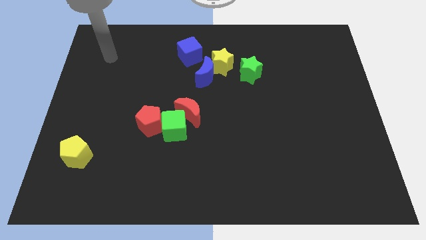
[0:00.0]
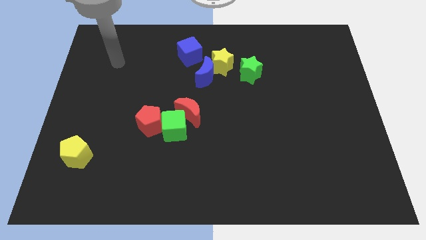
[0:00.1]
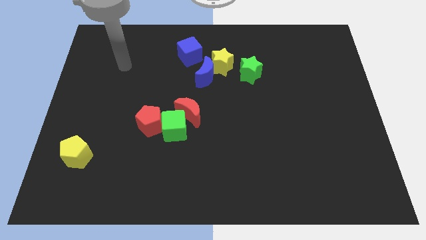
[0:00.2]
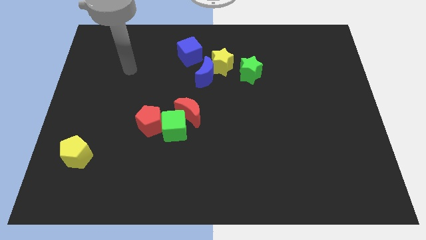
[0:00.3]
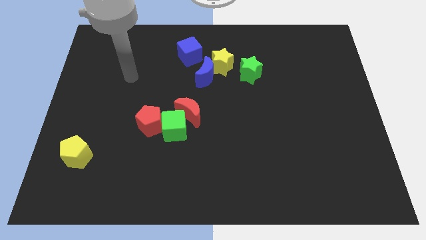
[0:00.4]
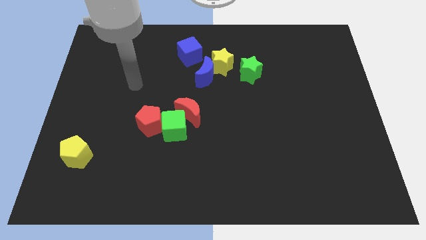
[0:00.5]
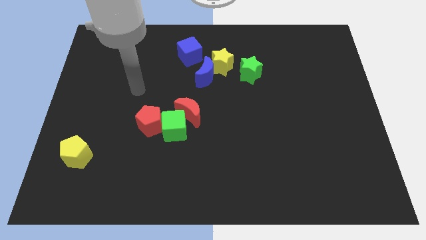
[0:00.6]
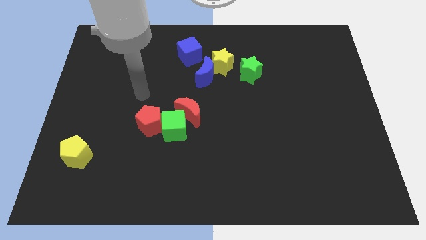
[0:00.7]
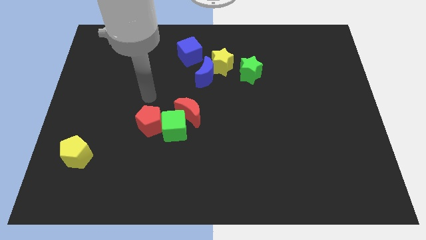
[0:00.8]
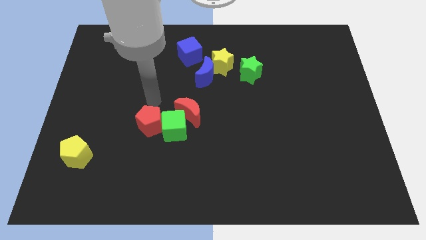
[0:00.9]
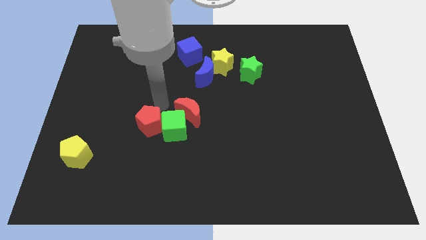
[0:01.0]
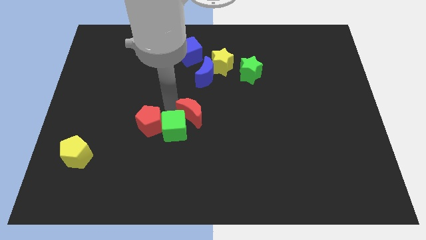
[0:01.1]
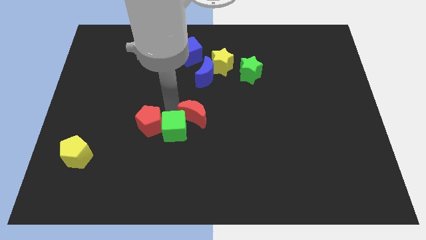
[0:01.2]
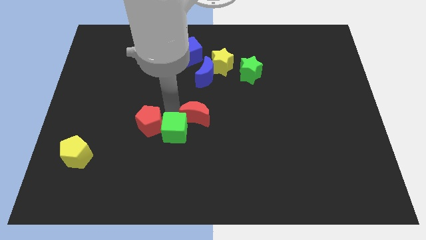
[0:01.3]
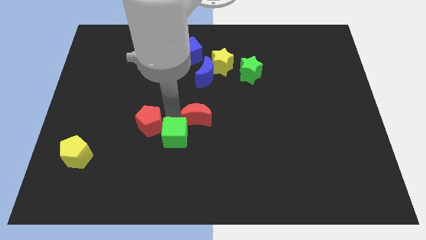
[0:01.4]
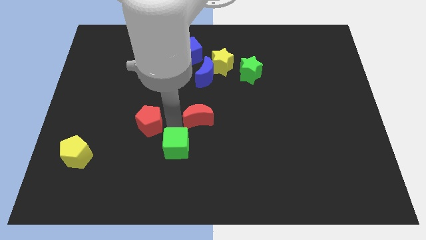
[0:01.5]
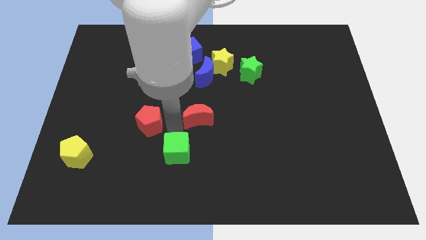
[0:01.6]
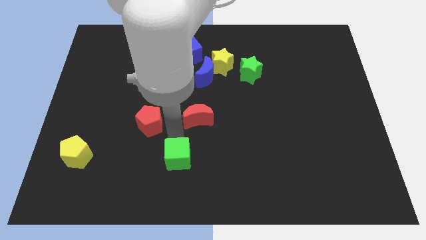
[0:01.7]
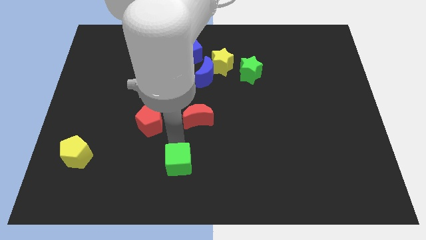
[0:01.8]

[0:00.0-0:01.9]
move the green cube away from the red moon and red pentagon

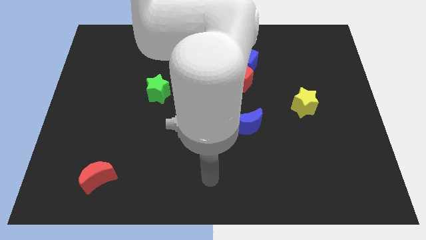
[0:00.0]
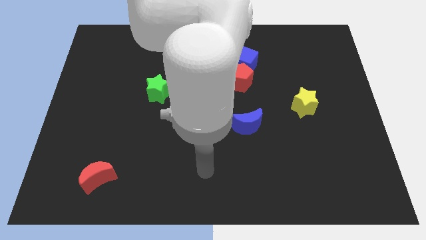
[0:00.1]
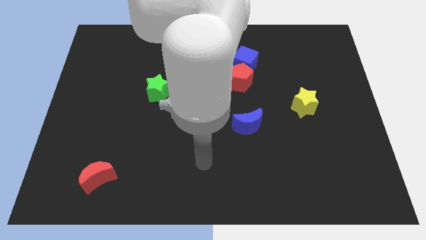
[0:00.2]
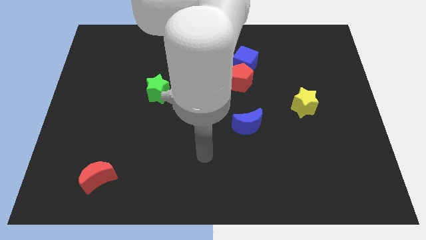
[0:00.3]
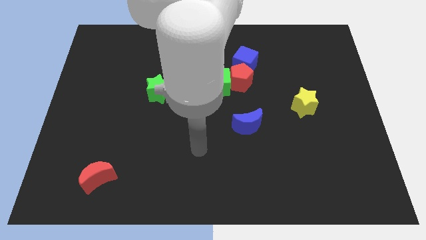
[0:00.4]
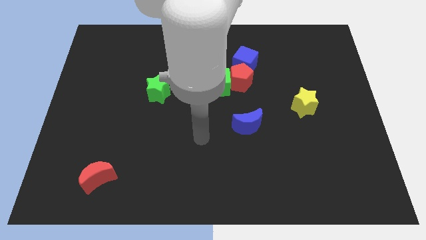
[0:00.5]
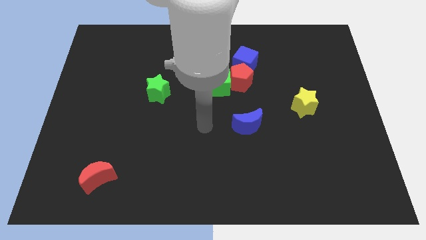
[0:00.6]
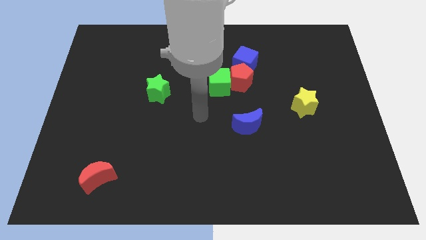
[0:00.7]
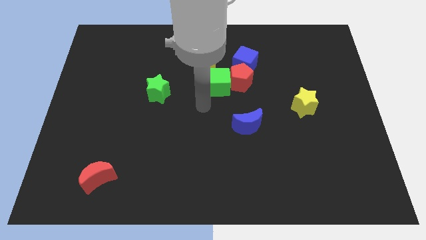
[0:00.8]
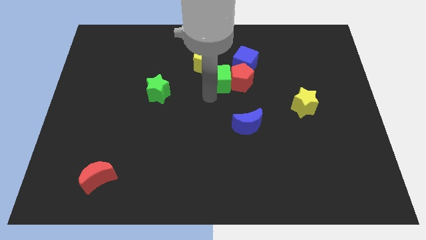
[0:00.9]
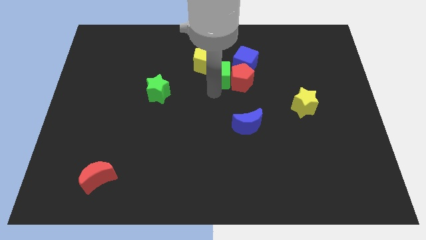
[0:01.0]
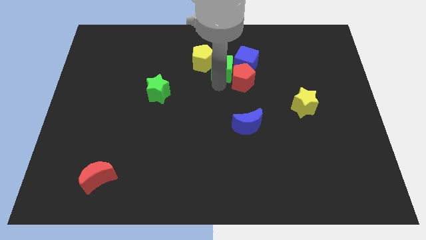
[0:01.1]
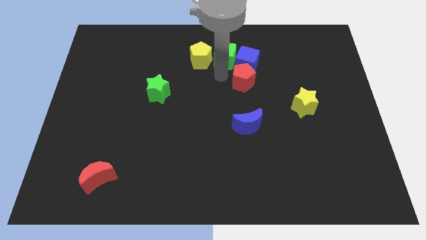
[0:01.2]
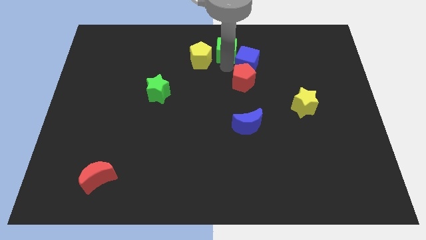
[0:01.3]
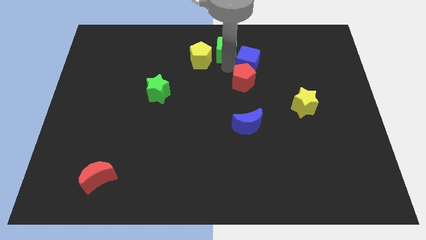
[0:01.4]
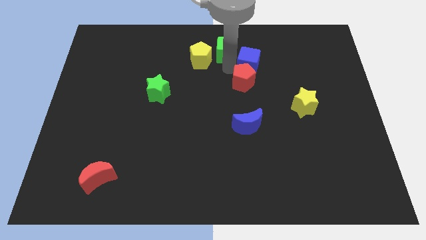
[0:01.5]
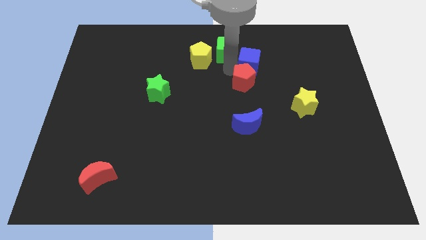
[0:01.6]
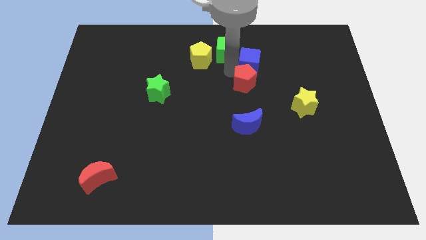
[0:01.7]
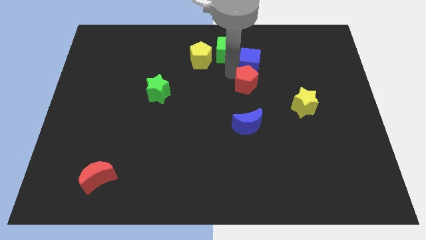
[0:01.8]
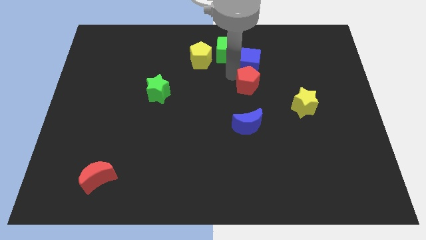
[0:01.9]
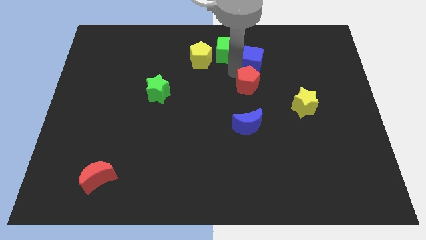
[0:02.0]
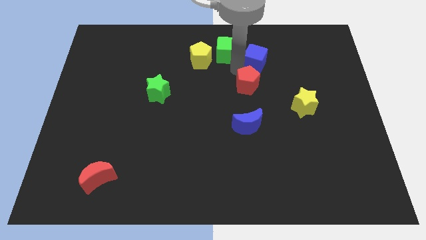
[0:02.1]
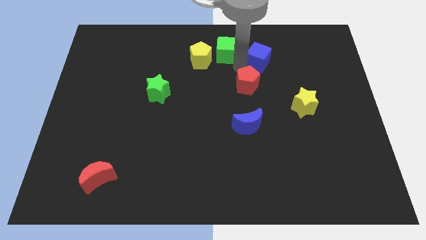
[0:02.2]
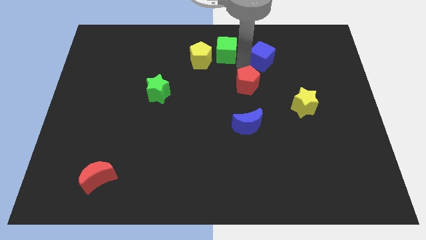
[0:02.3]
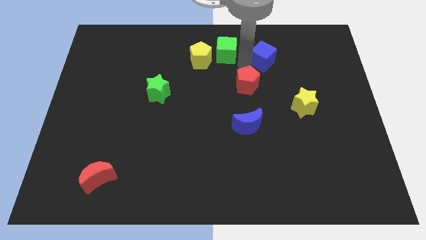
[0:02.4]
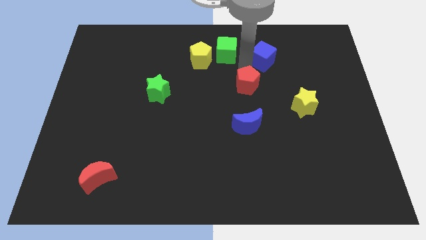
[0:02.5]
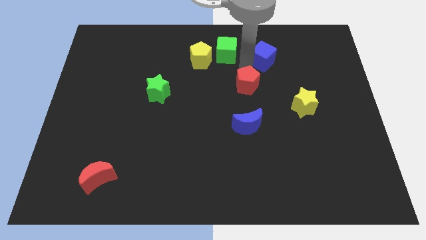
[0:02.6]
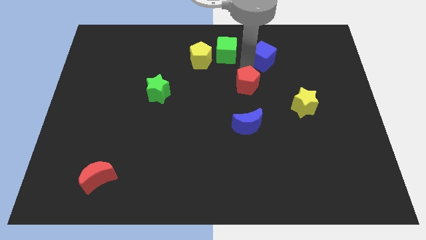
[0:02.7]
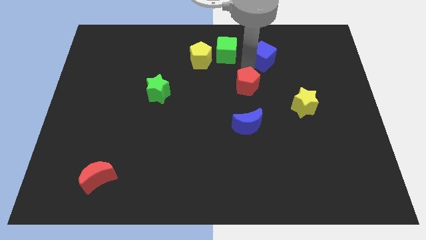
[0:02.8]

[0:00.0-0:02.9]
move the red pentagon away from the green cube and blue cube

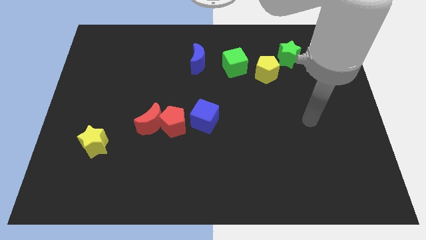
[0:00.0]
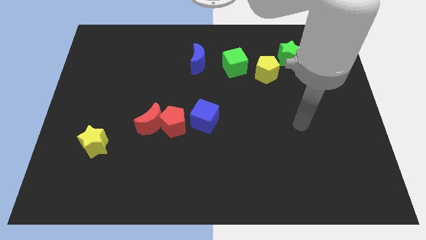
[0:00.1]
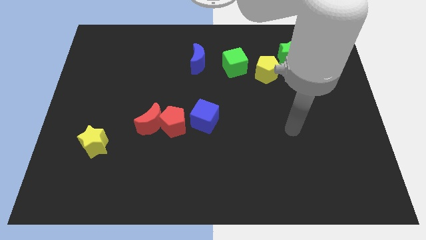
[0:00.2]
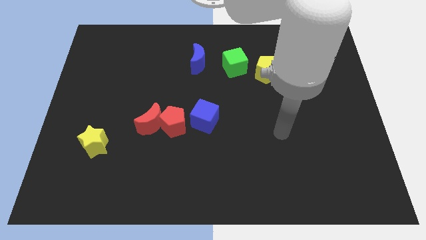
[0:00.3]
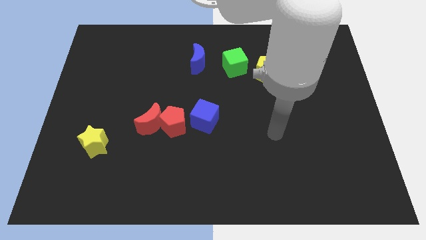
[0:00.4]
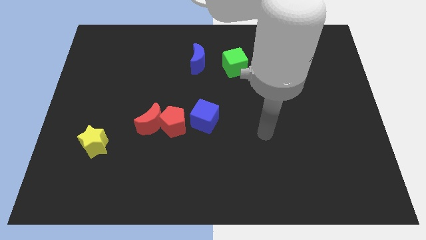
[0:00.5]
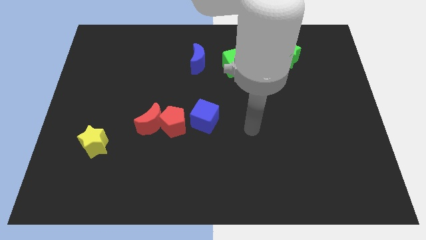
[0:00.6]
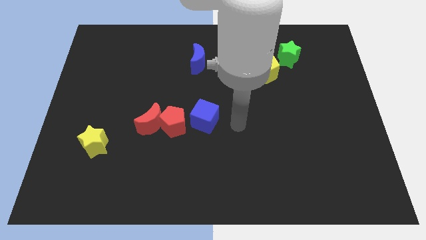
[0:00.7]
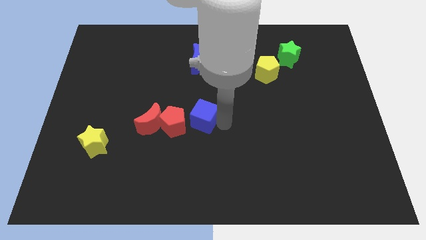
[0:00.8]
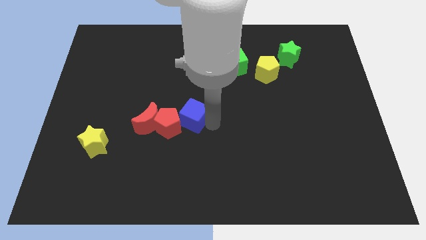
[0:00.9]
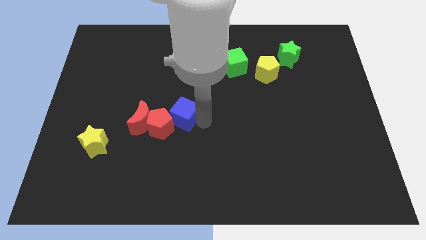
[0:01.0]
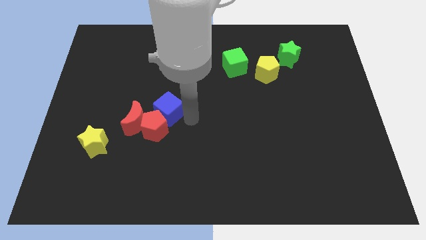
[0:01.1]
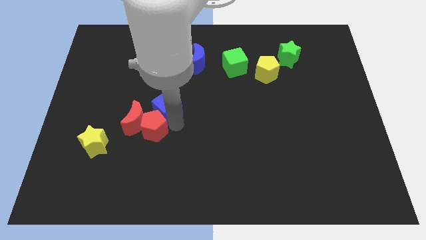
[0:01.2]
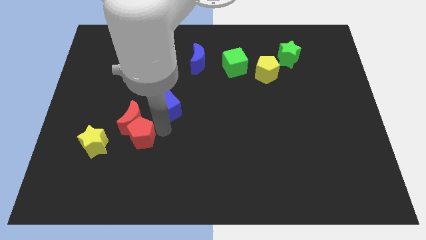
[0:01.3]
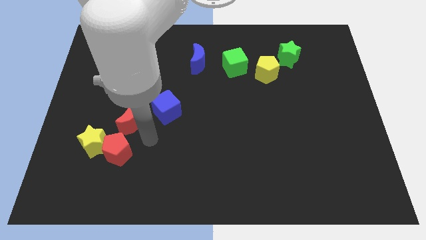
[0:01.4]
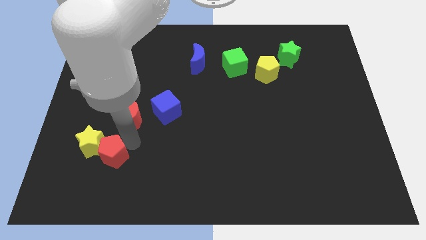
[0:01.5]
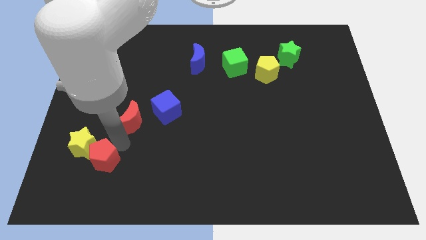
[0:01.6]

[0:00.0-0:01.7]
separate the red moon from the red pentagon

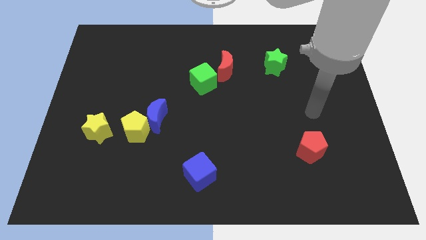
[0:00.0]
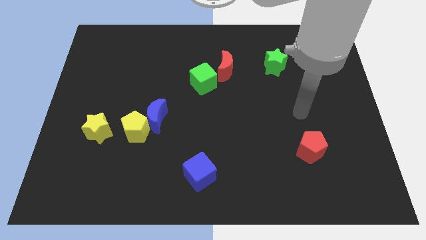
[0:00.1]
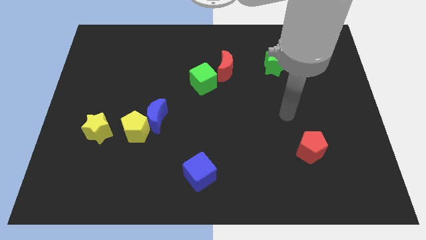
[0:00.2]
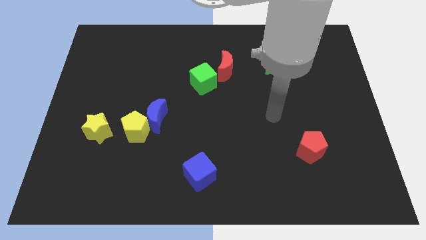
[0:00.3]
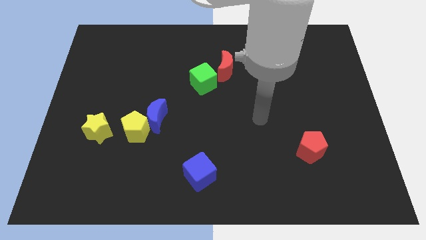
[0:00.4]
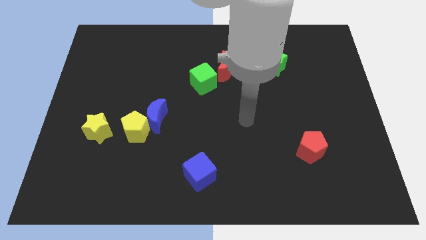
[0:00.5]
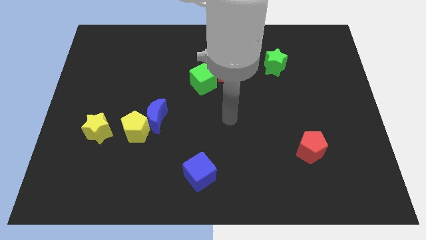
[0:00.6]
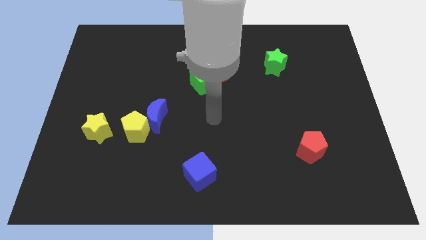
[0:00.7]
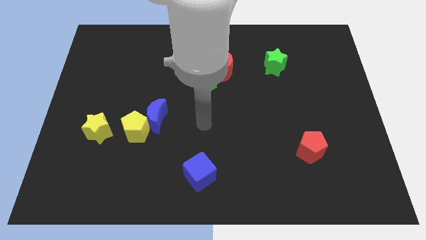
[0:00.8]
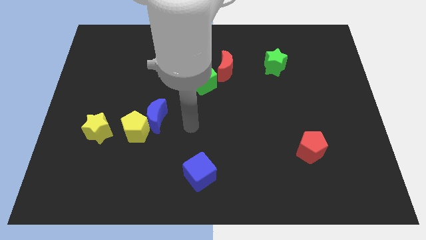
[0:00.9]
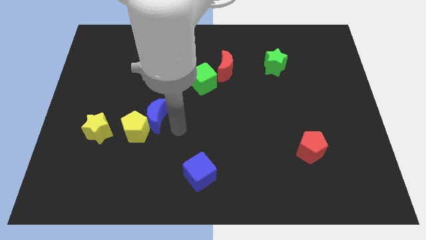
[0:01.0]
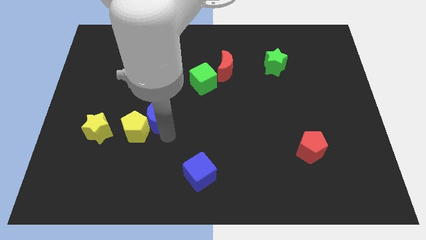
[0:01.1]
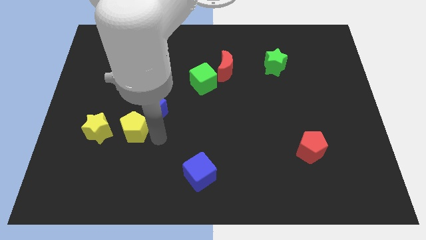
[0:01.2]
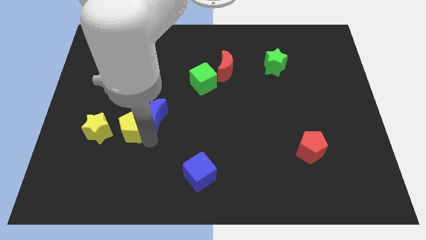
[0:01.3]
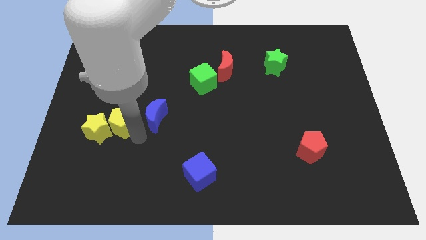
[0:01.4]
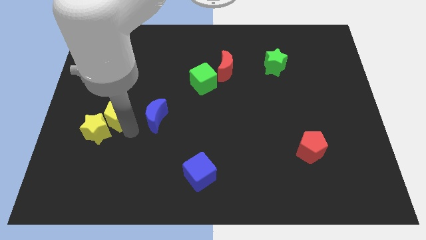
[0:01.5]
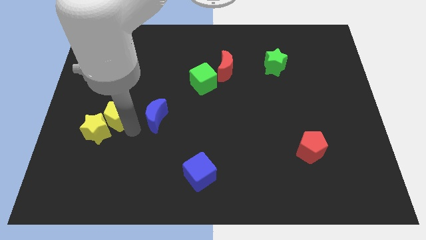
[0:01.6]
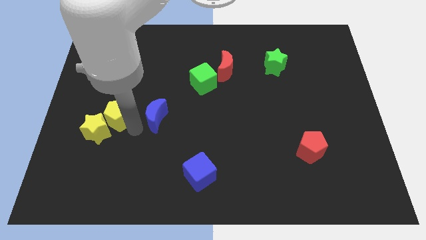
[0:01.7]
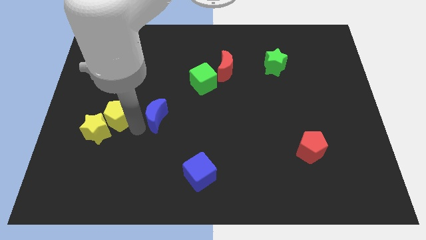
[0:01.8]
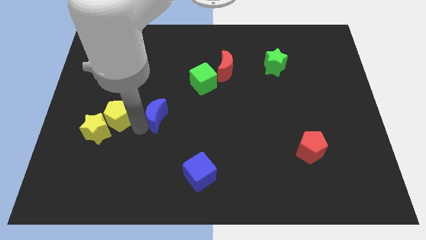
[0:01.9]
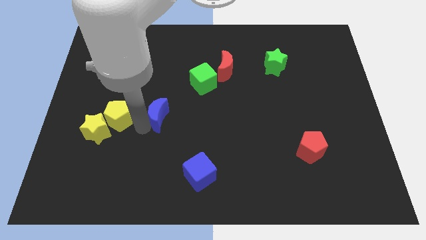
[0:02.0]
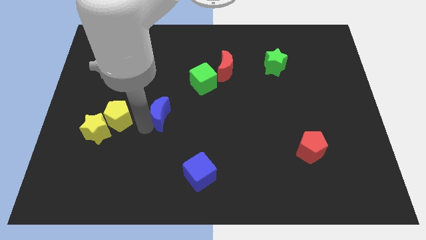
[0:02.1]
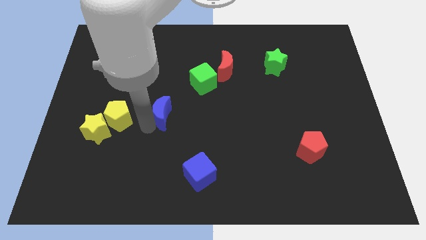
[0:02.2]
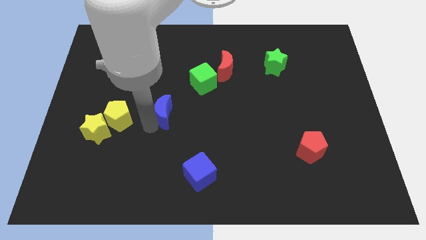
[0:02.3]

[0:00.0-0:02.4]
separate the blue moon from the yellow pentagon

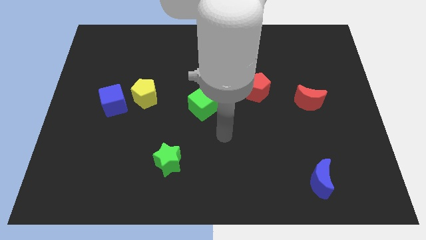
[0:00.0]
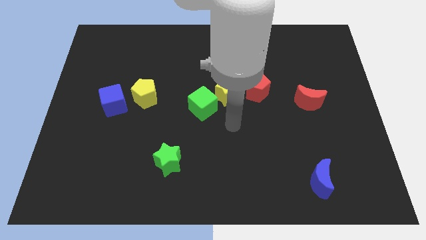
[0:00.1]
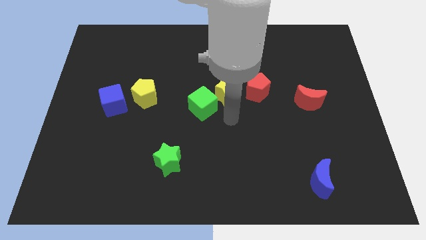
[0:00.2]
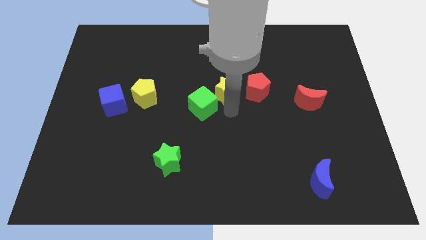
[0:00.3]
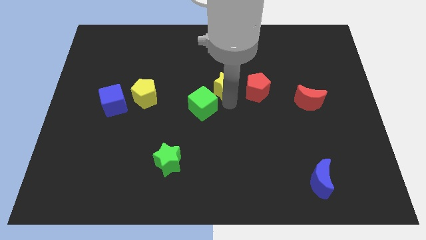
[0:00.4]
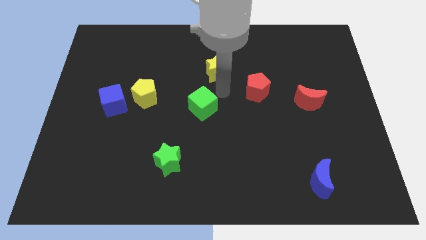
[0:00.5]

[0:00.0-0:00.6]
separate the green cube from the yellow star
